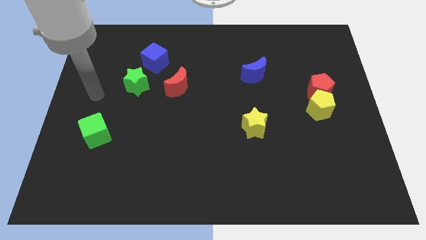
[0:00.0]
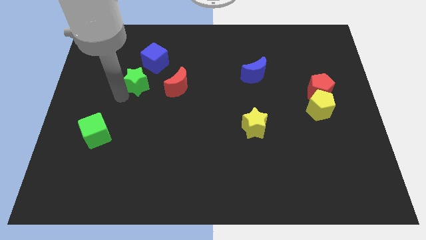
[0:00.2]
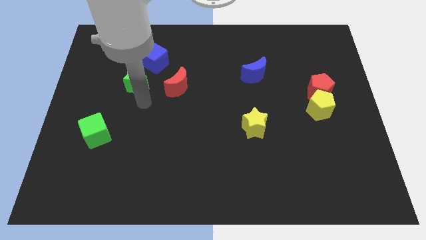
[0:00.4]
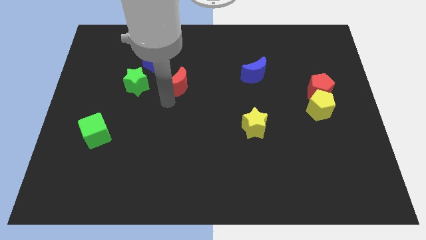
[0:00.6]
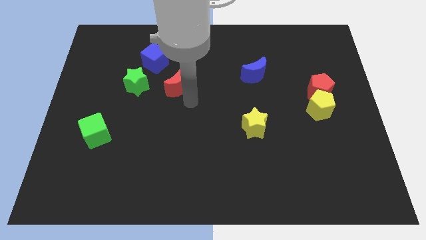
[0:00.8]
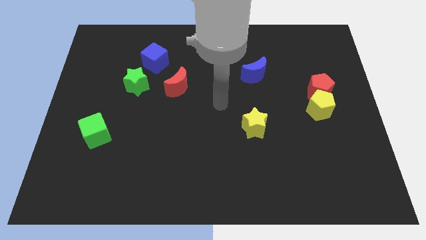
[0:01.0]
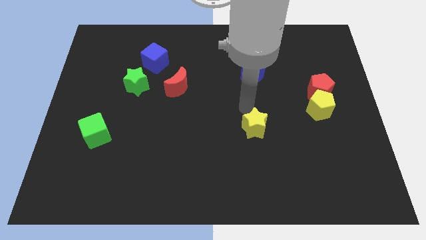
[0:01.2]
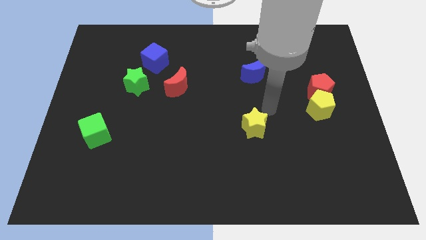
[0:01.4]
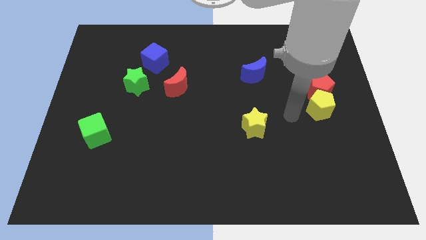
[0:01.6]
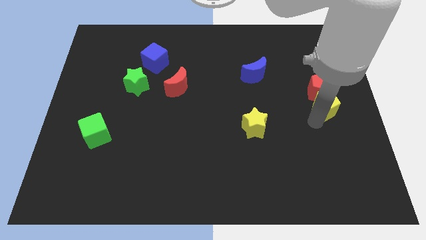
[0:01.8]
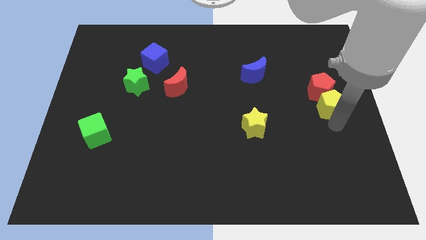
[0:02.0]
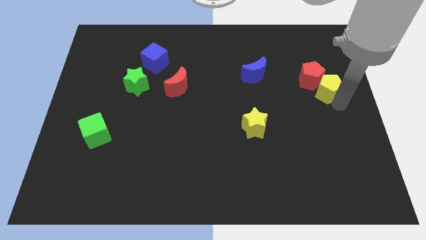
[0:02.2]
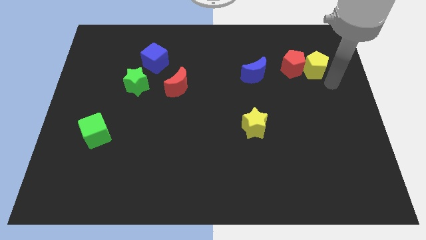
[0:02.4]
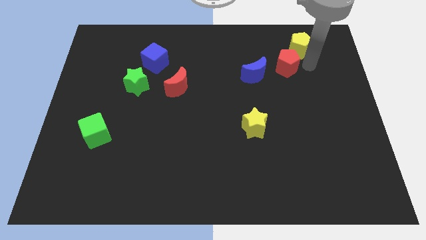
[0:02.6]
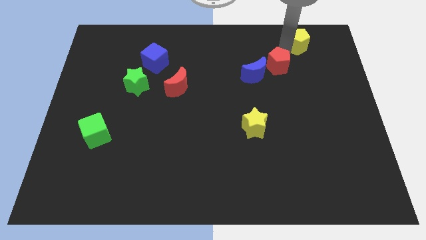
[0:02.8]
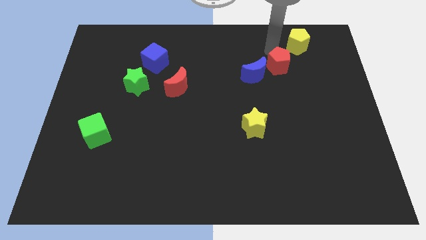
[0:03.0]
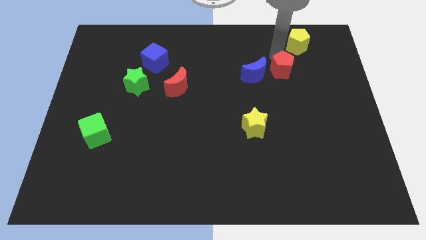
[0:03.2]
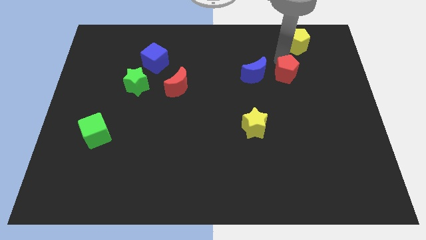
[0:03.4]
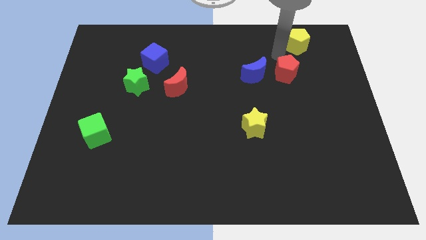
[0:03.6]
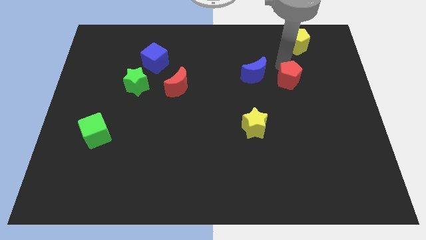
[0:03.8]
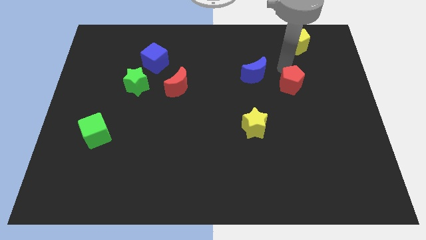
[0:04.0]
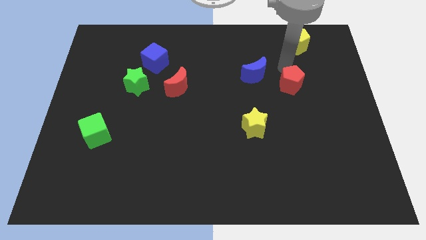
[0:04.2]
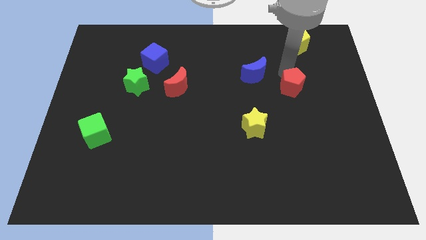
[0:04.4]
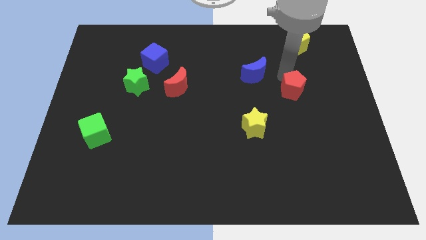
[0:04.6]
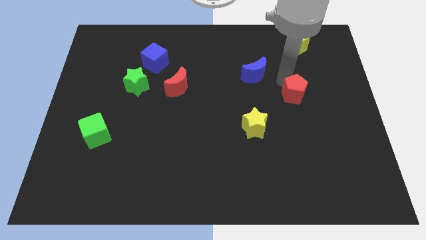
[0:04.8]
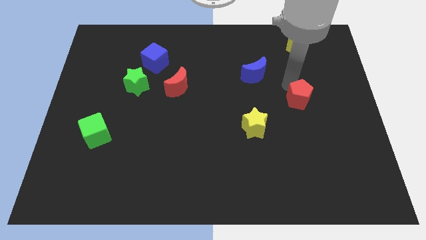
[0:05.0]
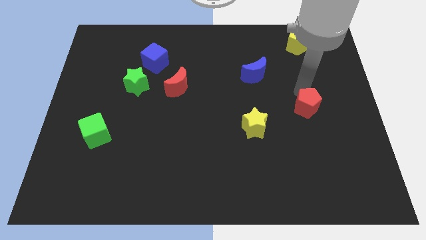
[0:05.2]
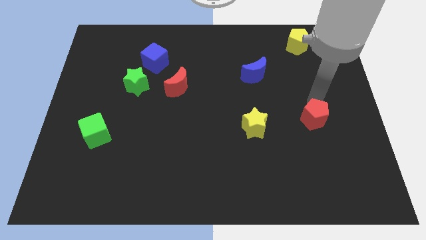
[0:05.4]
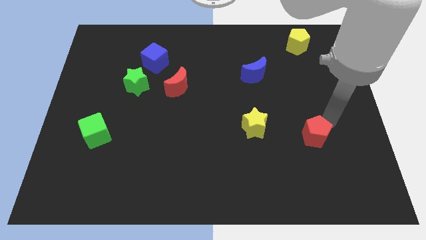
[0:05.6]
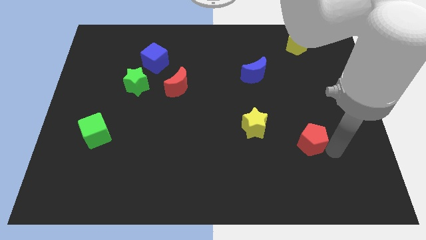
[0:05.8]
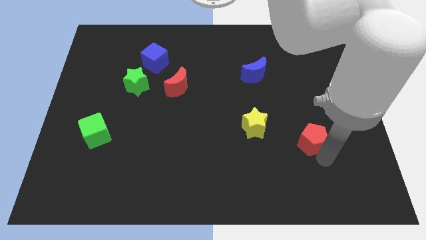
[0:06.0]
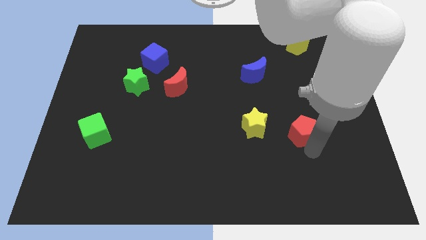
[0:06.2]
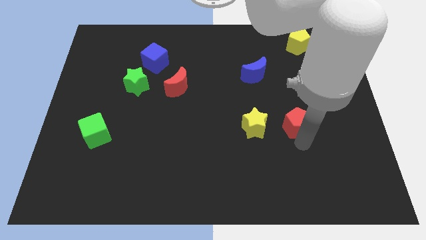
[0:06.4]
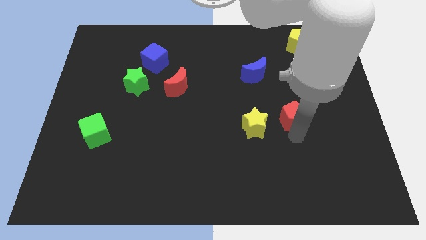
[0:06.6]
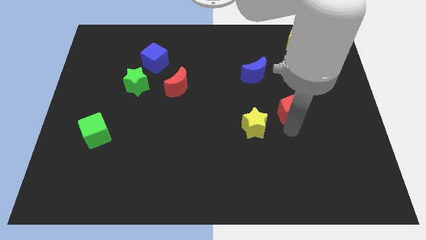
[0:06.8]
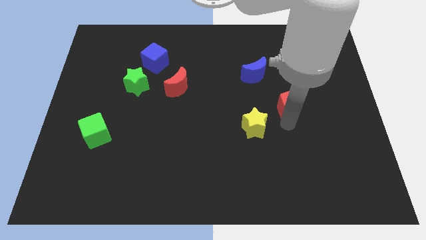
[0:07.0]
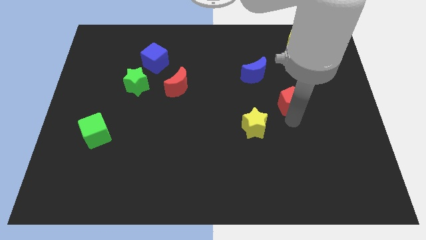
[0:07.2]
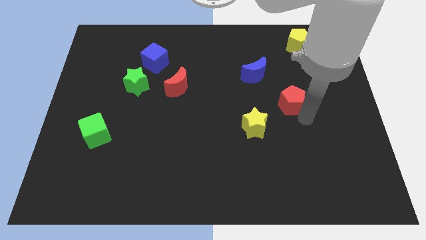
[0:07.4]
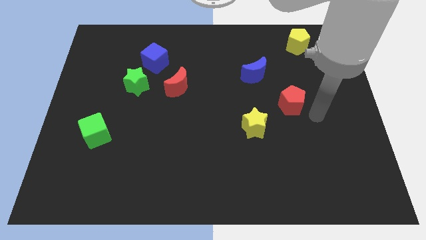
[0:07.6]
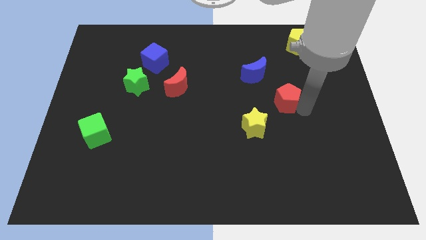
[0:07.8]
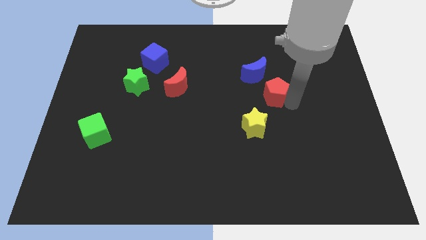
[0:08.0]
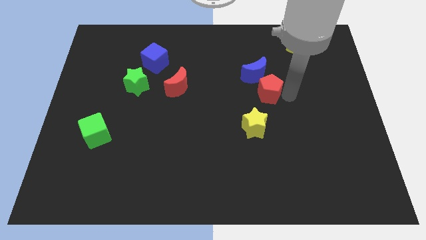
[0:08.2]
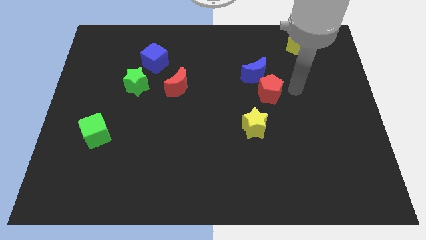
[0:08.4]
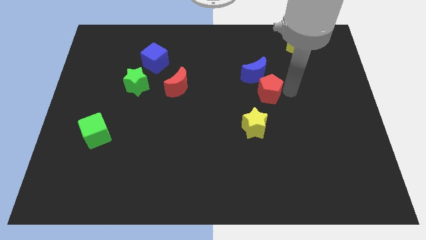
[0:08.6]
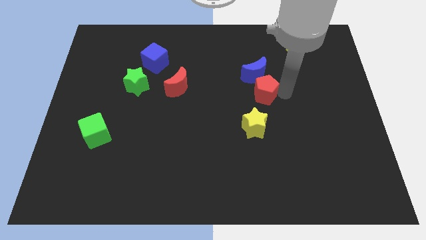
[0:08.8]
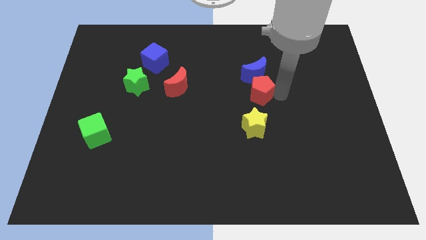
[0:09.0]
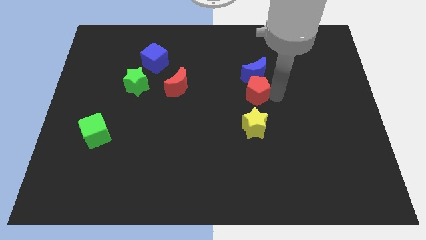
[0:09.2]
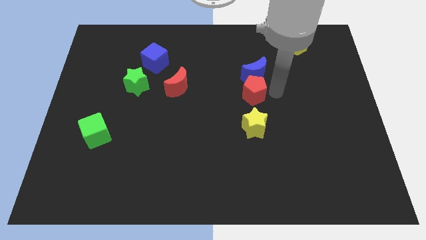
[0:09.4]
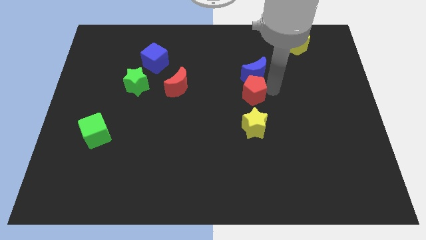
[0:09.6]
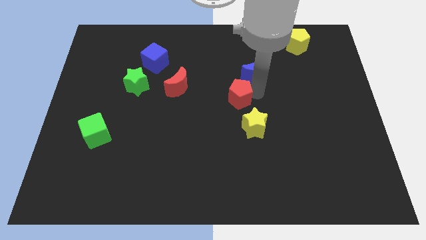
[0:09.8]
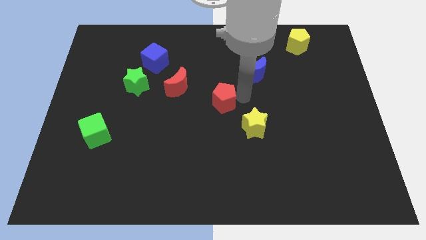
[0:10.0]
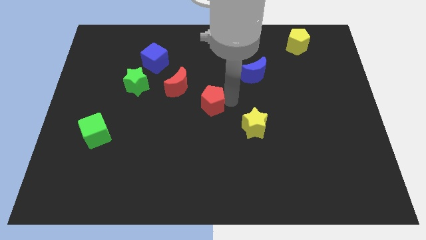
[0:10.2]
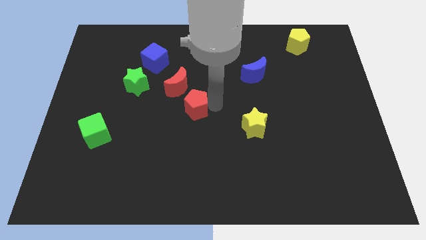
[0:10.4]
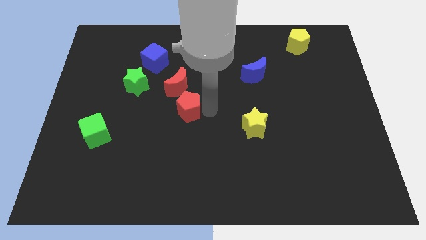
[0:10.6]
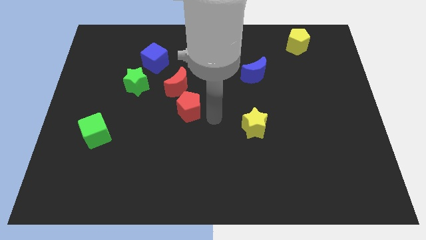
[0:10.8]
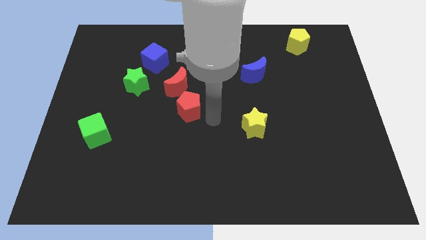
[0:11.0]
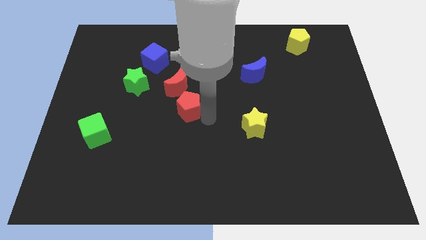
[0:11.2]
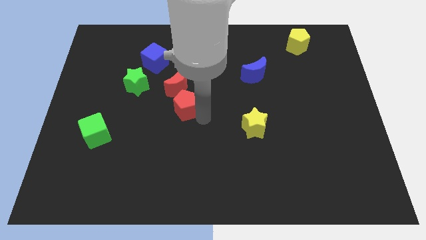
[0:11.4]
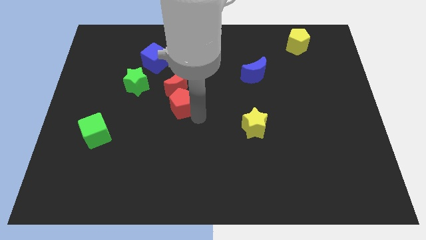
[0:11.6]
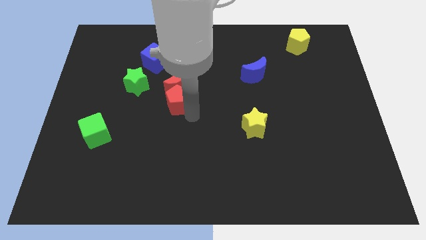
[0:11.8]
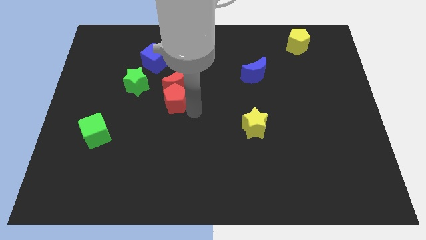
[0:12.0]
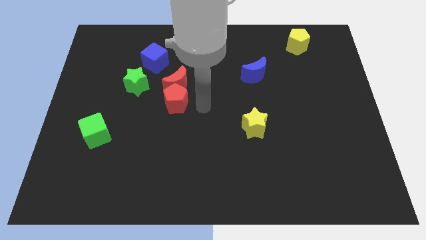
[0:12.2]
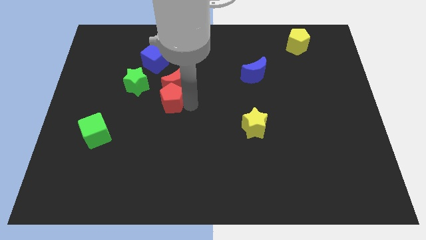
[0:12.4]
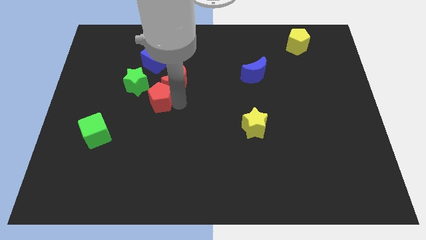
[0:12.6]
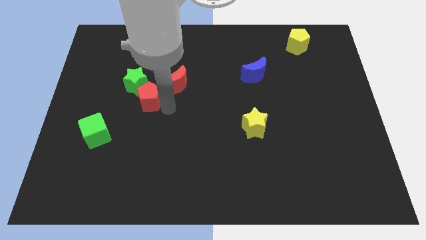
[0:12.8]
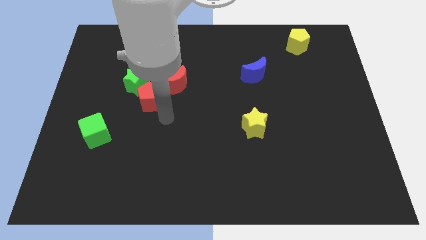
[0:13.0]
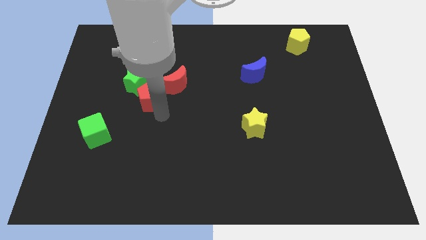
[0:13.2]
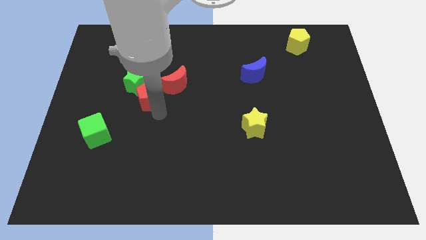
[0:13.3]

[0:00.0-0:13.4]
slide the red pentagon towards the green star
